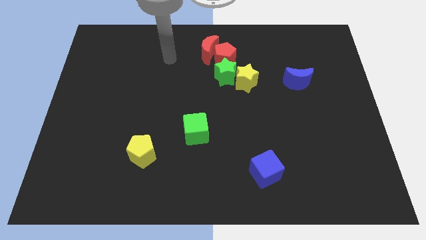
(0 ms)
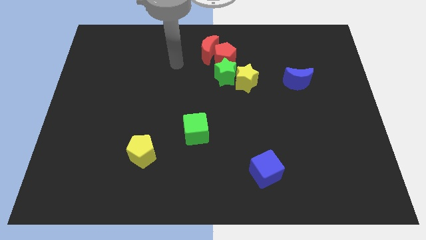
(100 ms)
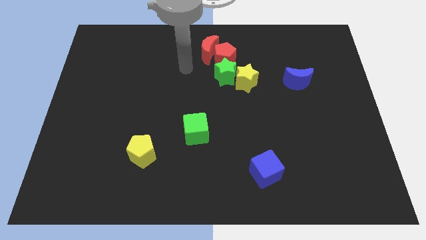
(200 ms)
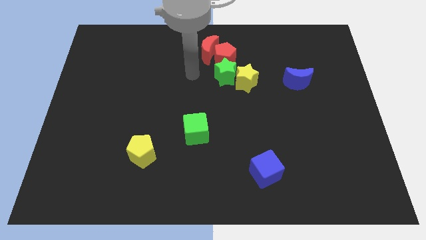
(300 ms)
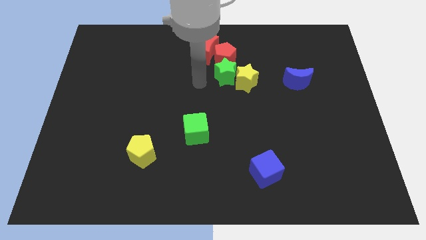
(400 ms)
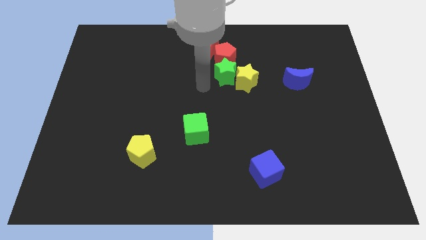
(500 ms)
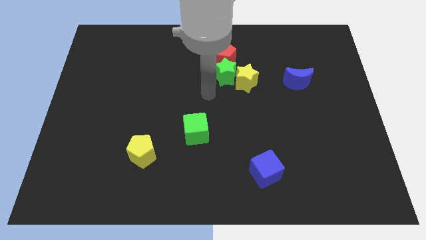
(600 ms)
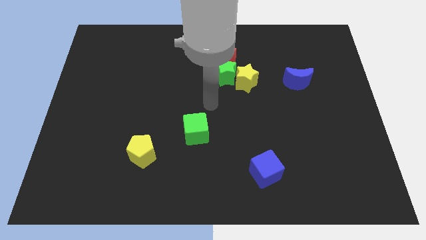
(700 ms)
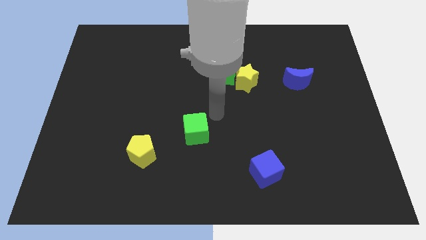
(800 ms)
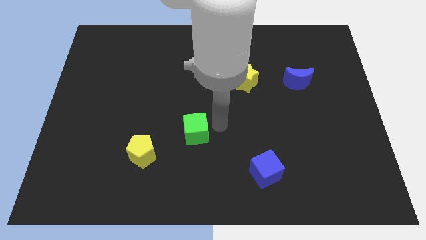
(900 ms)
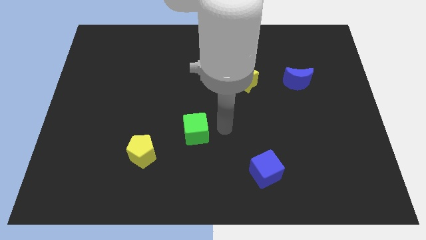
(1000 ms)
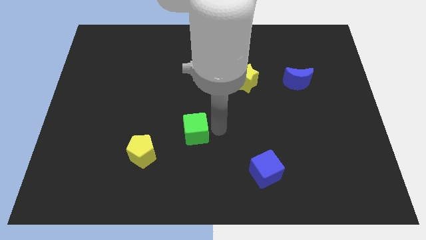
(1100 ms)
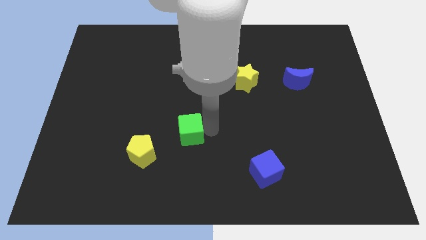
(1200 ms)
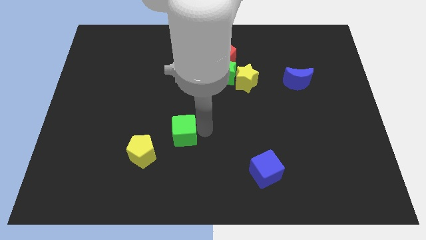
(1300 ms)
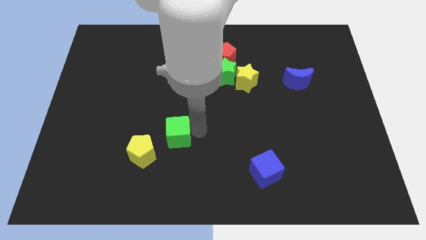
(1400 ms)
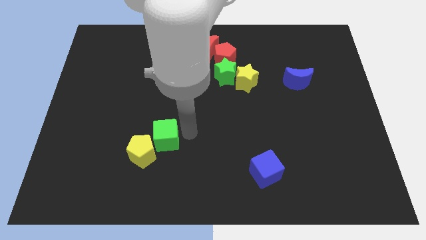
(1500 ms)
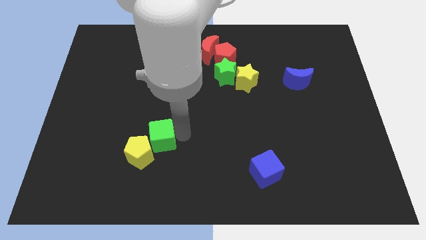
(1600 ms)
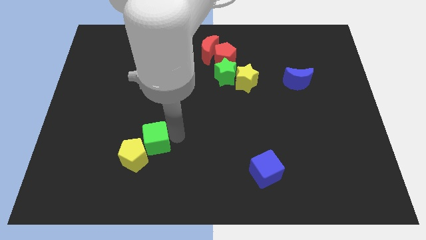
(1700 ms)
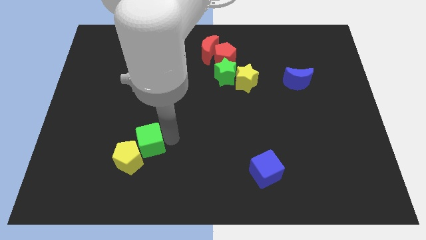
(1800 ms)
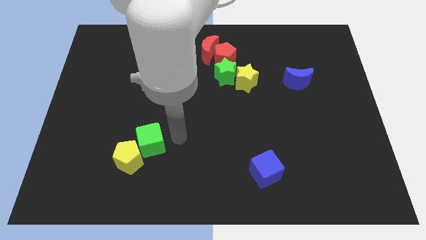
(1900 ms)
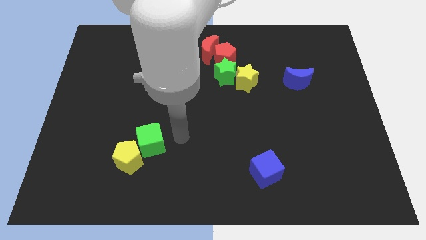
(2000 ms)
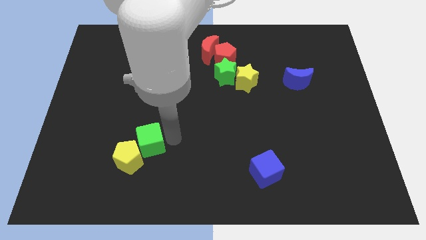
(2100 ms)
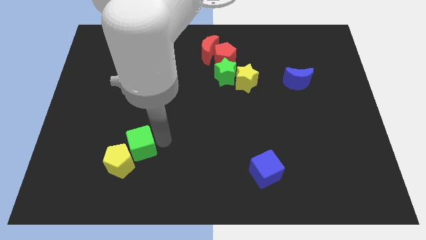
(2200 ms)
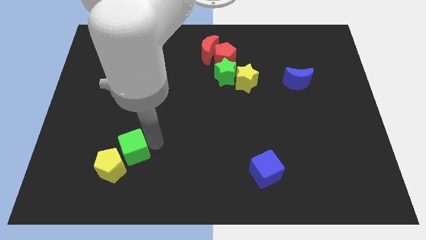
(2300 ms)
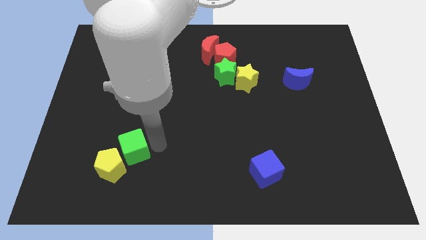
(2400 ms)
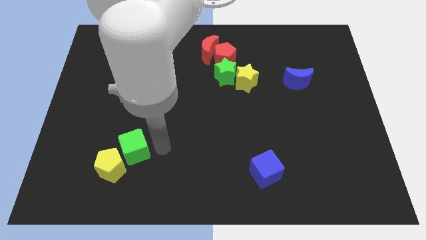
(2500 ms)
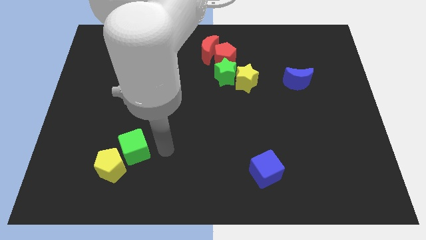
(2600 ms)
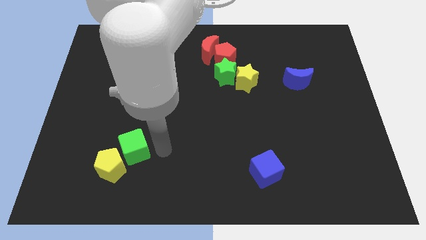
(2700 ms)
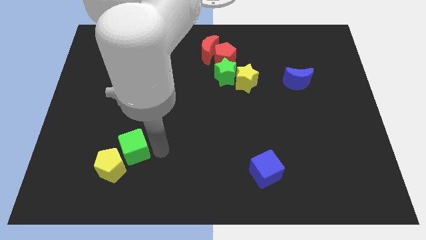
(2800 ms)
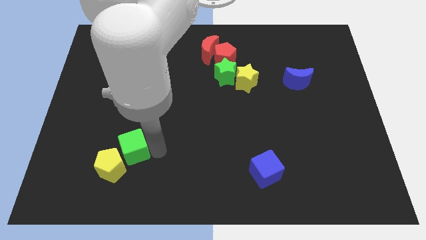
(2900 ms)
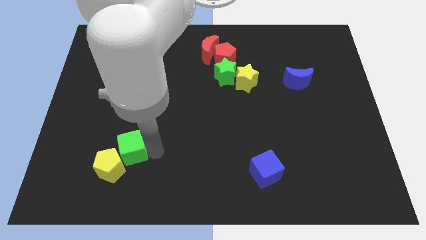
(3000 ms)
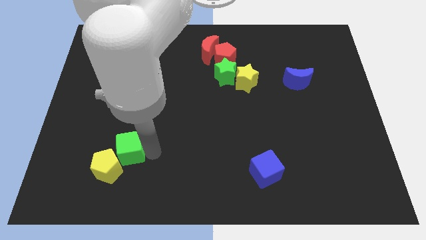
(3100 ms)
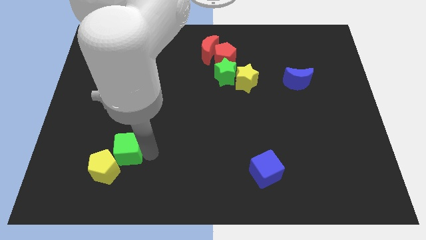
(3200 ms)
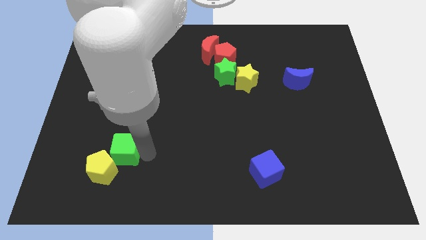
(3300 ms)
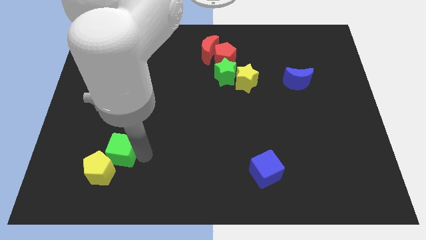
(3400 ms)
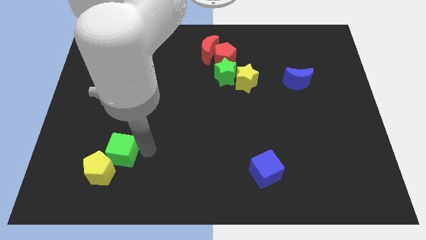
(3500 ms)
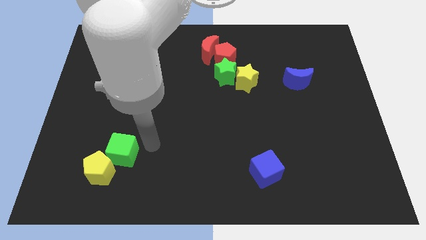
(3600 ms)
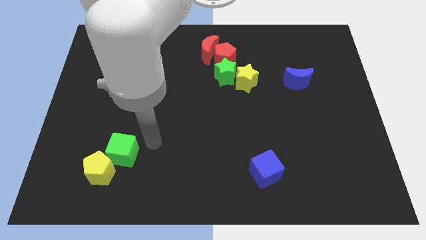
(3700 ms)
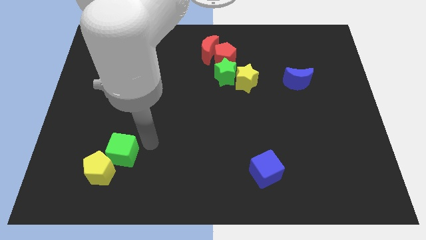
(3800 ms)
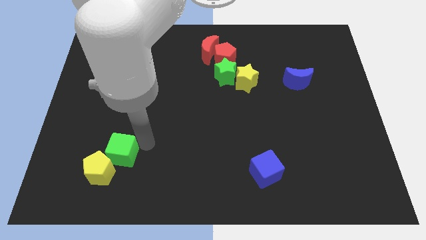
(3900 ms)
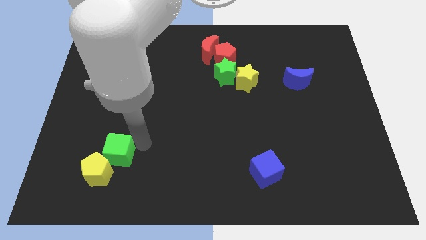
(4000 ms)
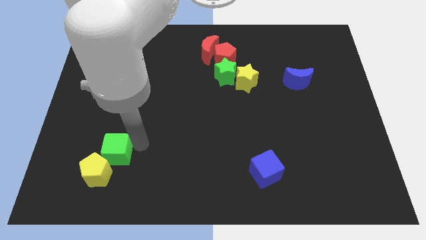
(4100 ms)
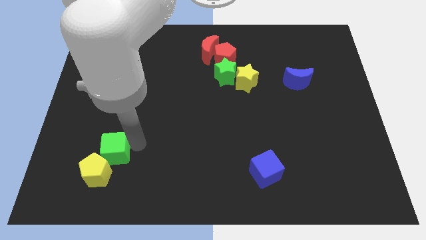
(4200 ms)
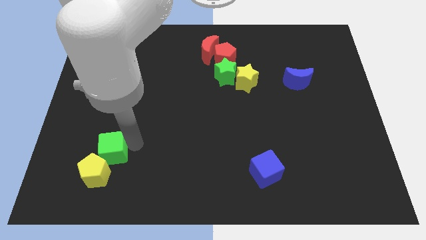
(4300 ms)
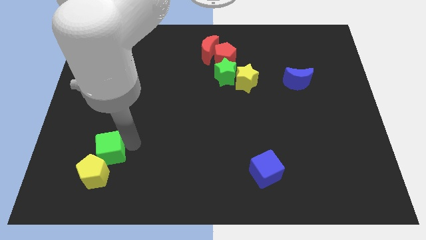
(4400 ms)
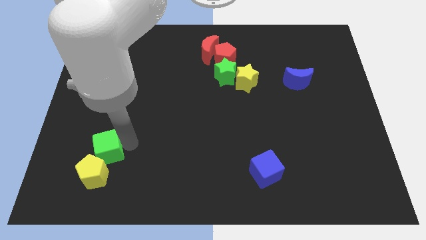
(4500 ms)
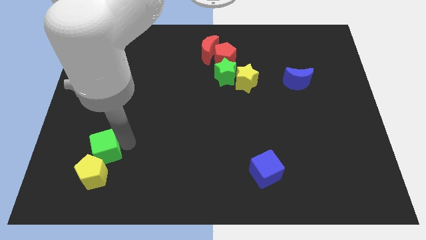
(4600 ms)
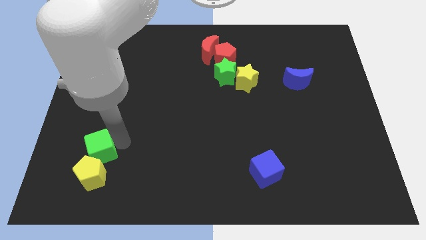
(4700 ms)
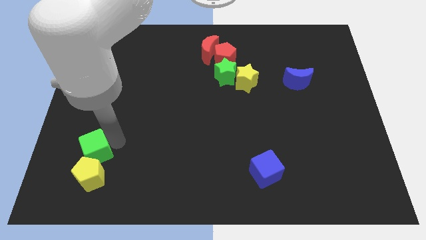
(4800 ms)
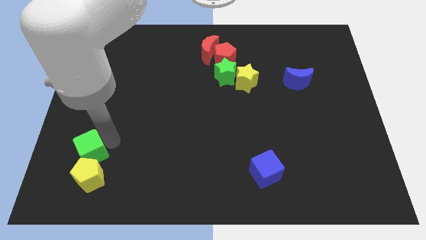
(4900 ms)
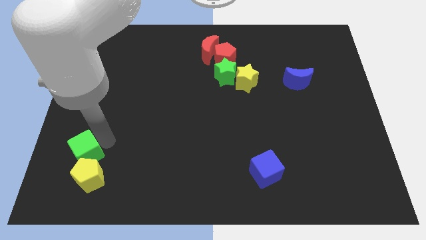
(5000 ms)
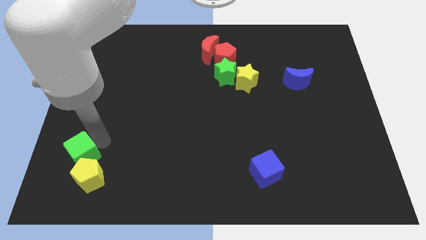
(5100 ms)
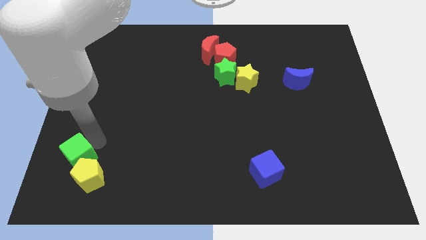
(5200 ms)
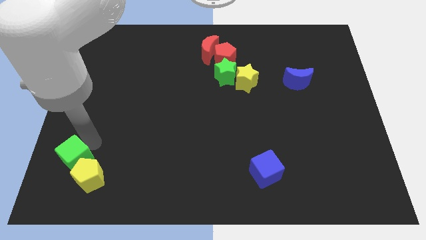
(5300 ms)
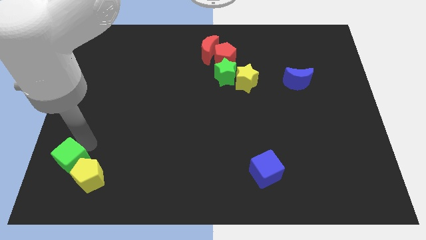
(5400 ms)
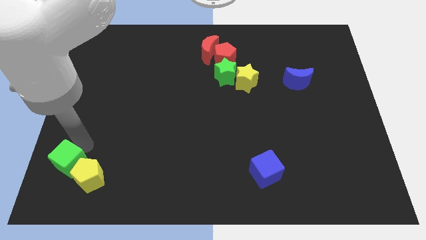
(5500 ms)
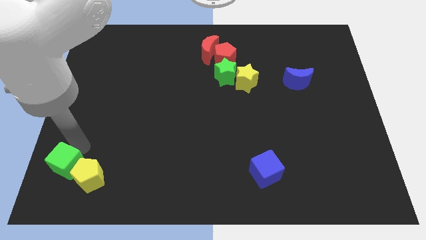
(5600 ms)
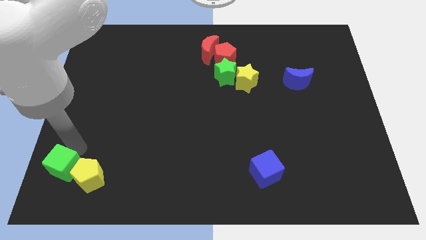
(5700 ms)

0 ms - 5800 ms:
push the green cube to the bottom left
